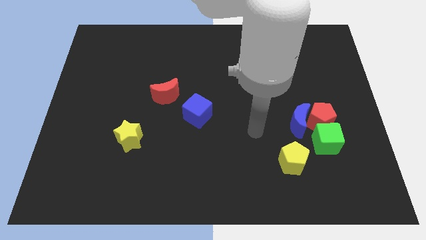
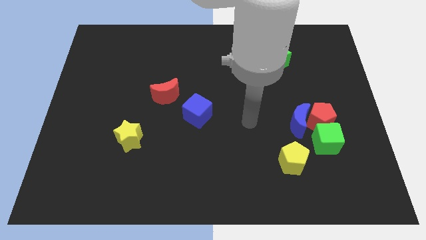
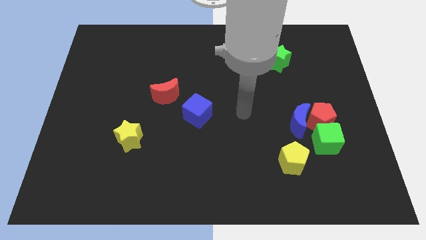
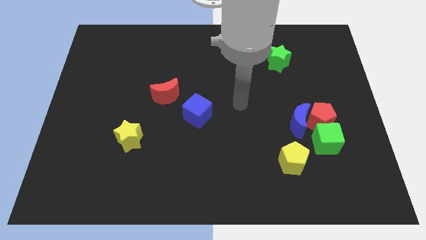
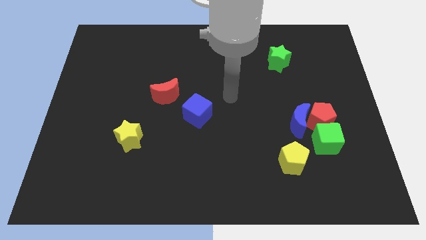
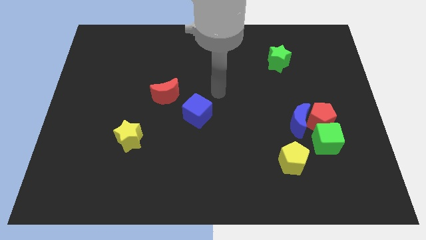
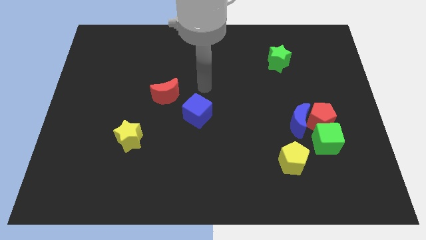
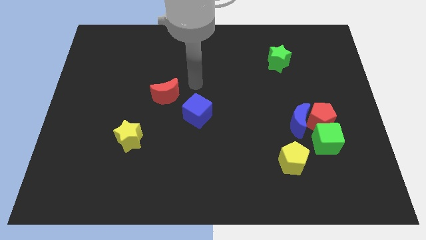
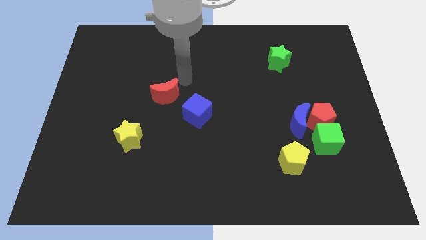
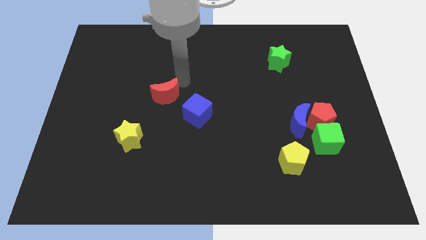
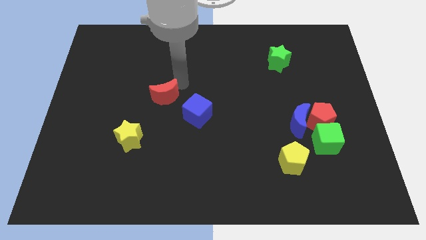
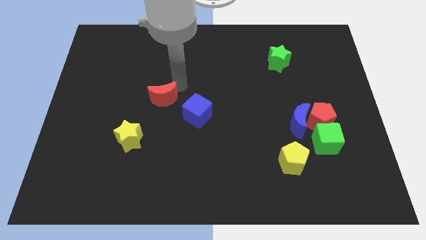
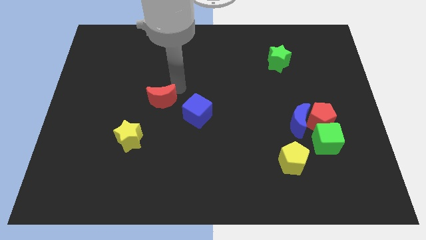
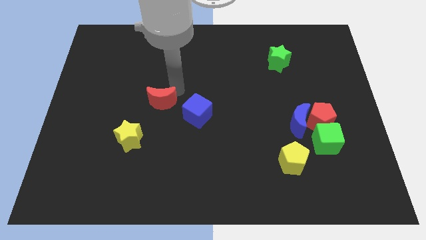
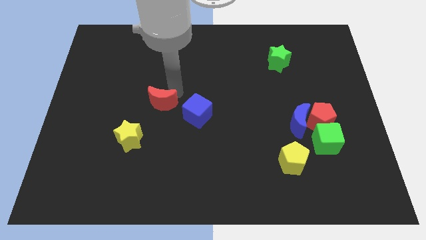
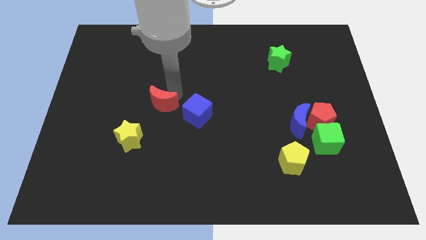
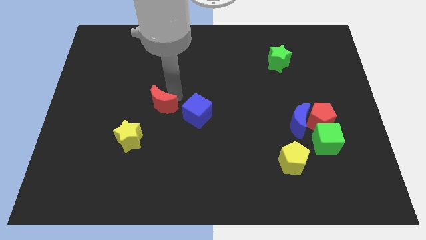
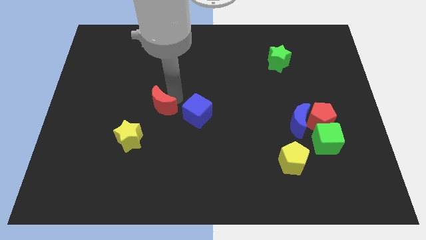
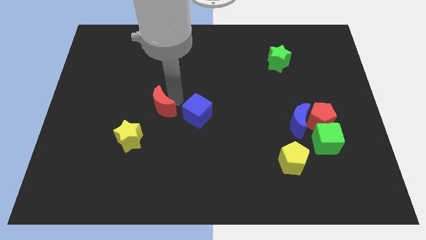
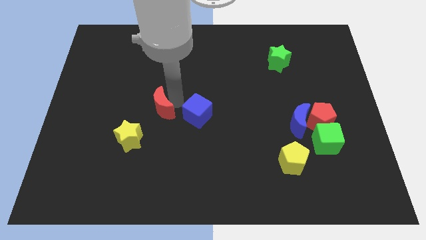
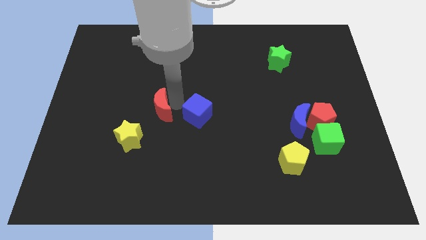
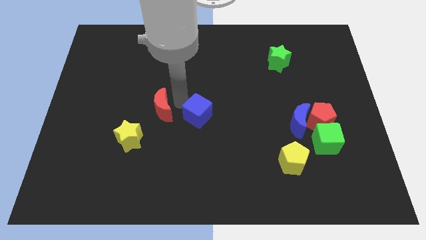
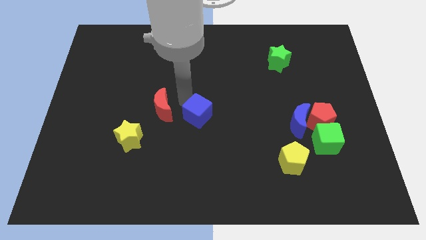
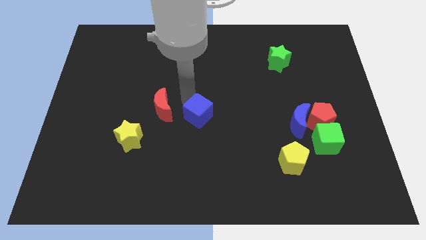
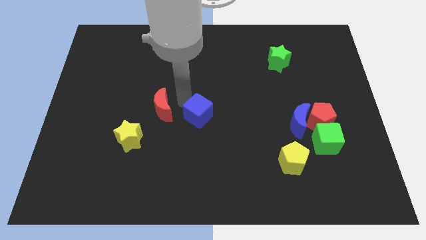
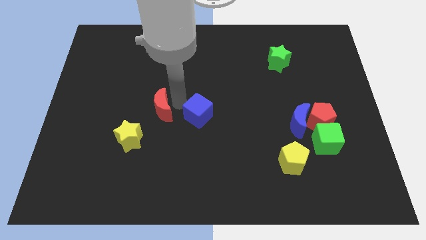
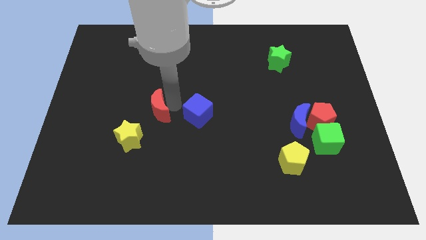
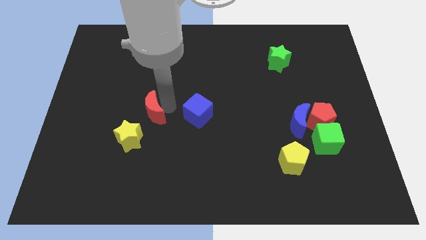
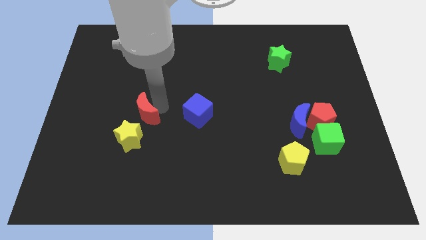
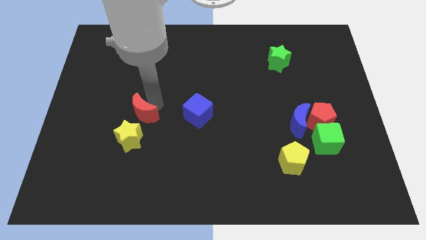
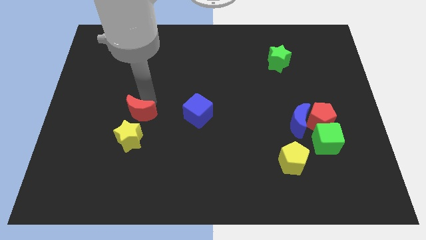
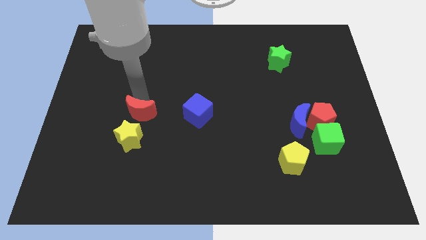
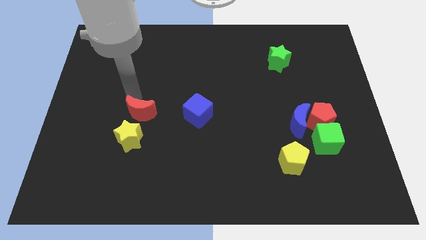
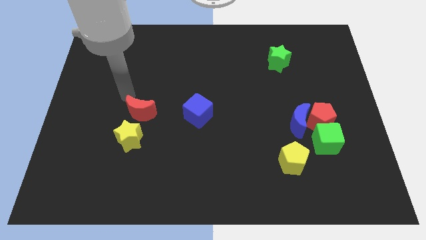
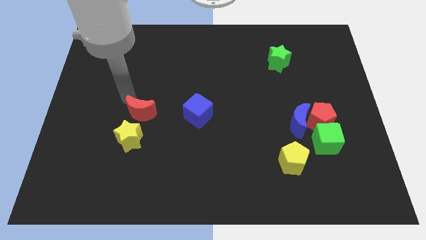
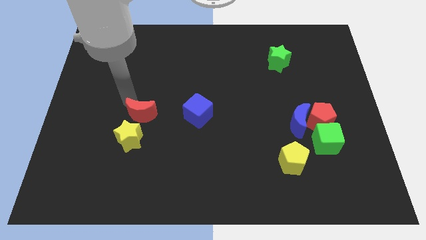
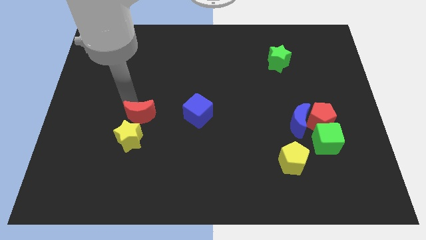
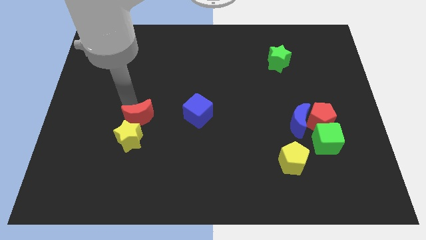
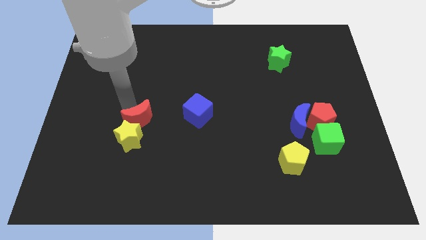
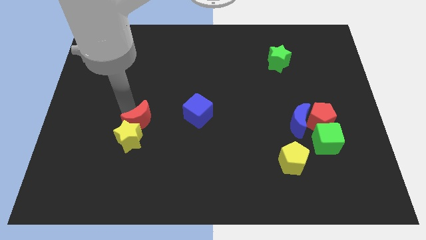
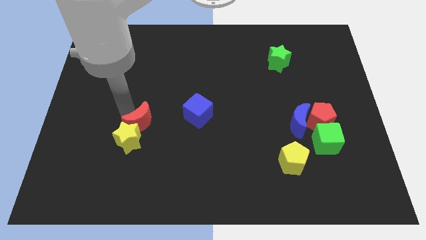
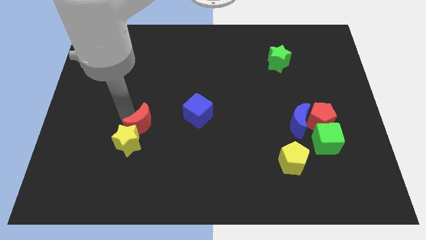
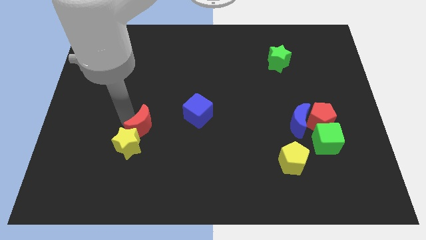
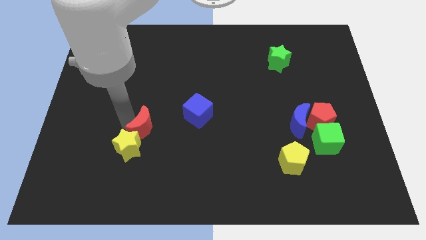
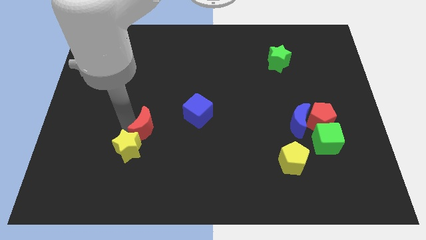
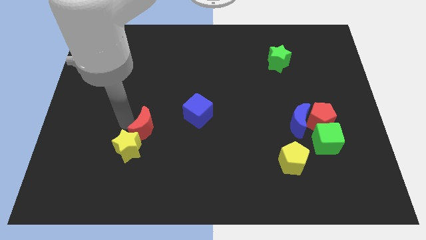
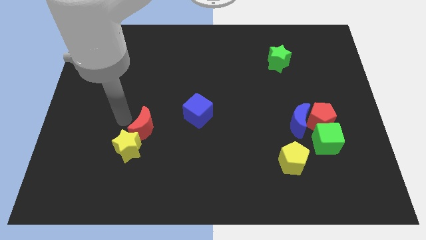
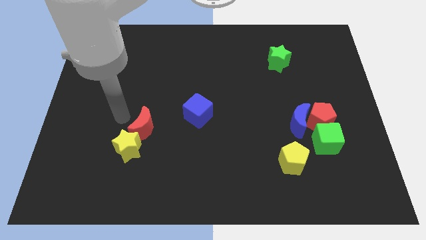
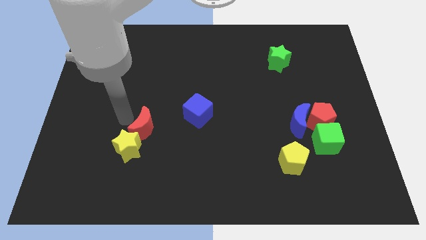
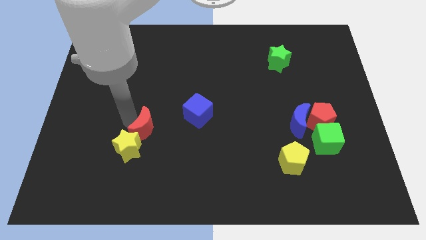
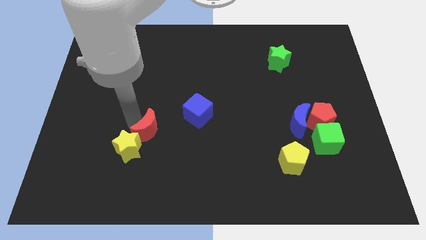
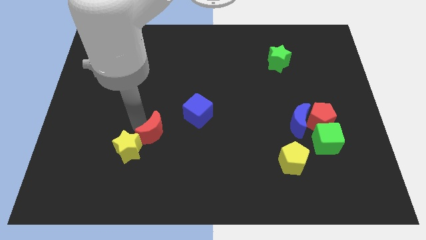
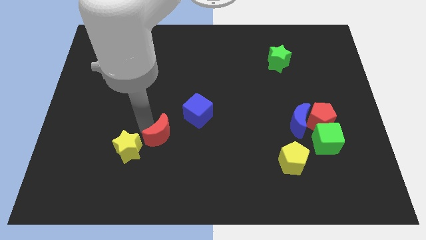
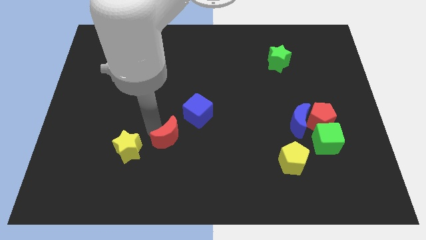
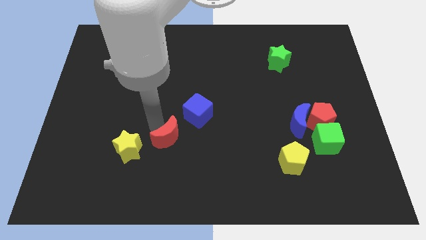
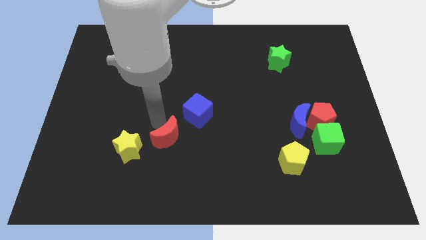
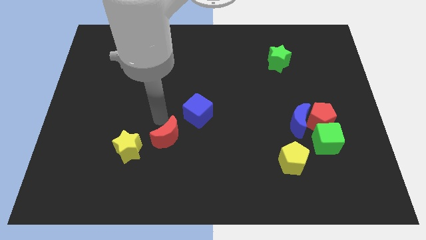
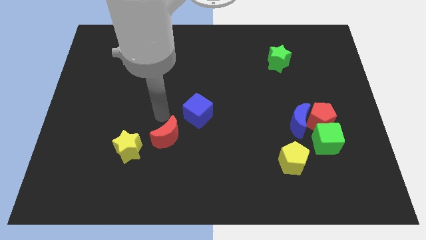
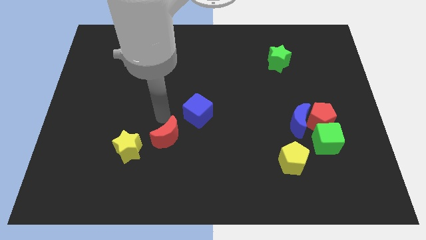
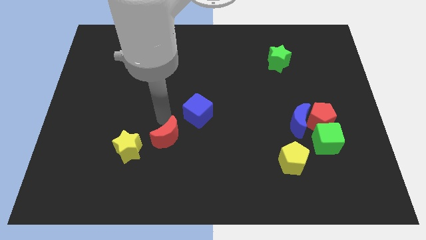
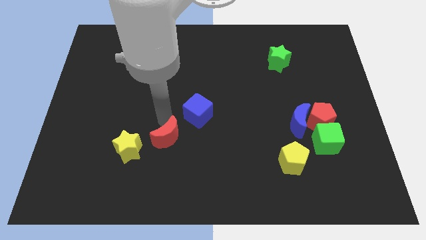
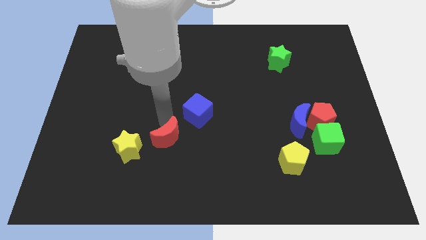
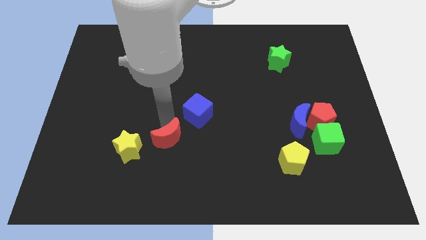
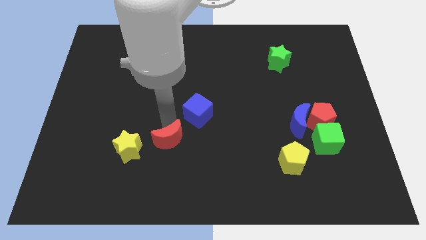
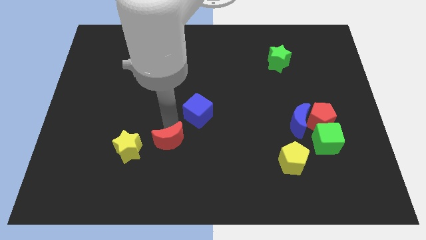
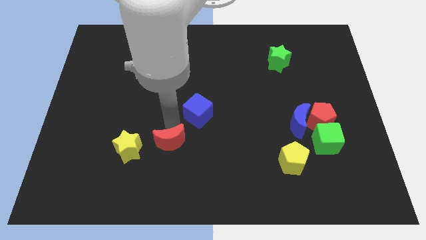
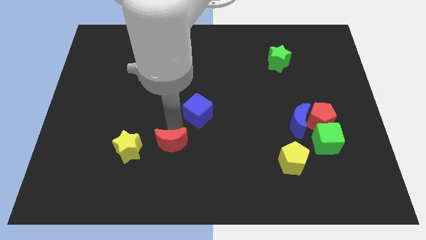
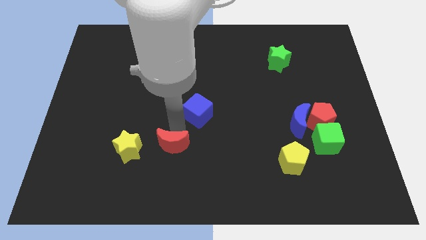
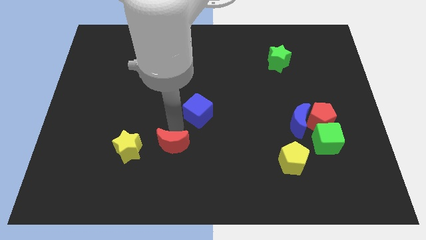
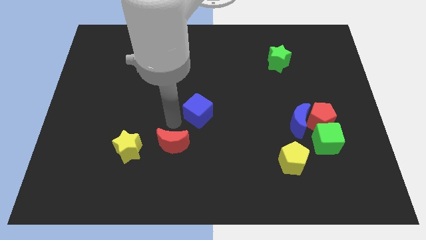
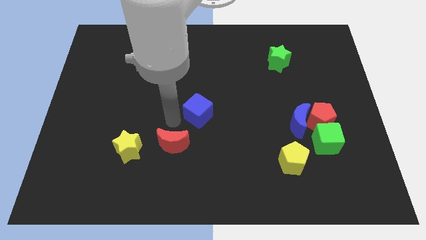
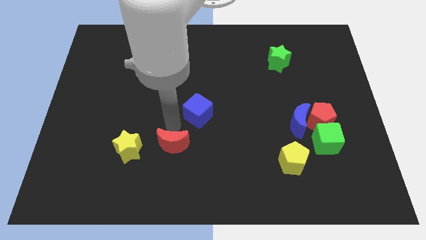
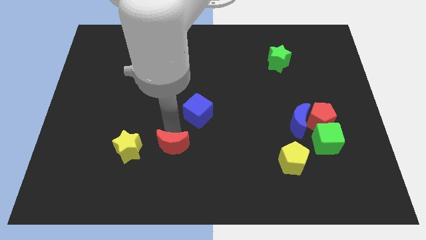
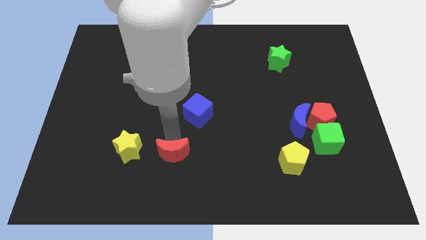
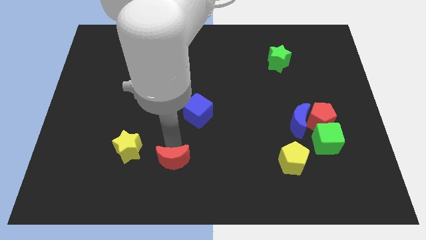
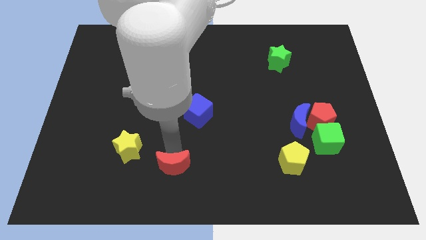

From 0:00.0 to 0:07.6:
slide the red moon to the bottom
